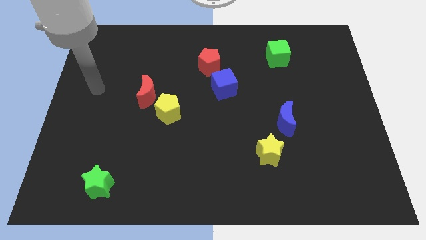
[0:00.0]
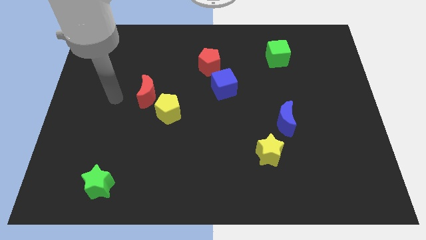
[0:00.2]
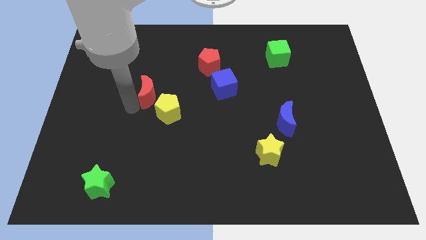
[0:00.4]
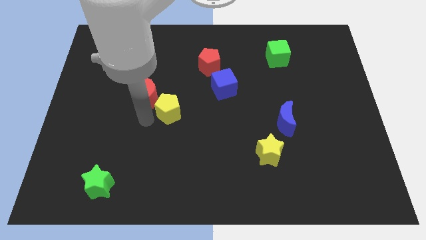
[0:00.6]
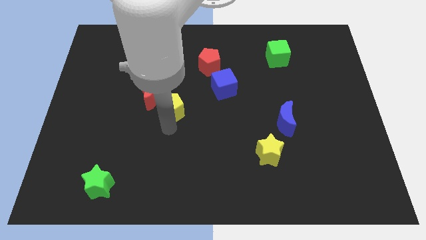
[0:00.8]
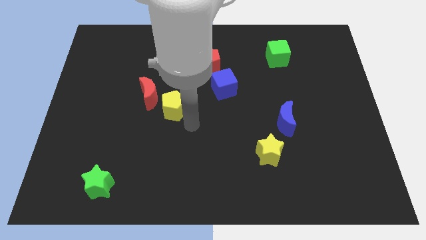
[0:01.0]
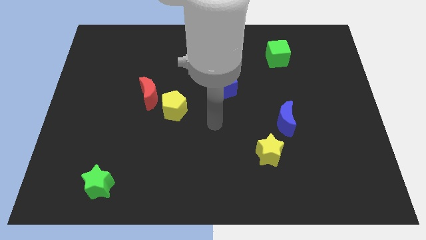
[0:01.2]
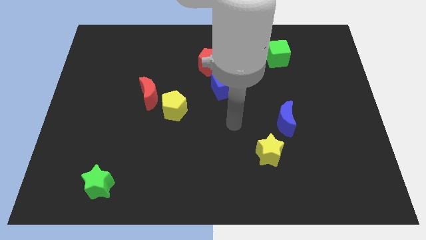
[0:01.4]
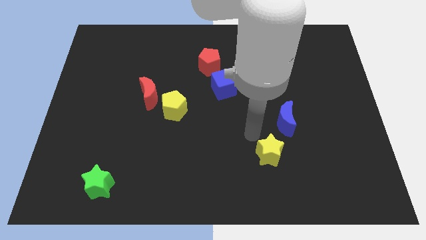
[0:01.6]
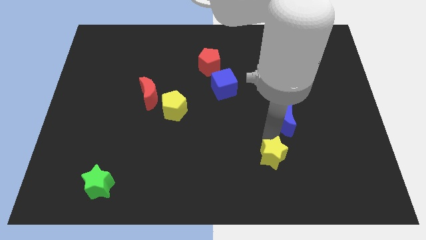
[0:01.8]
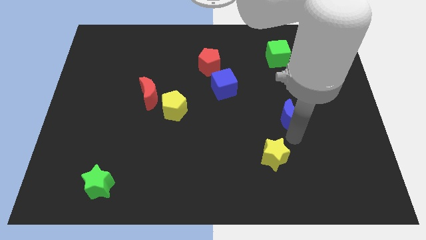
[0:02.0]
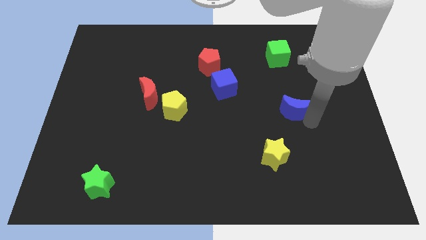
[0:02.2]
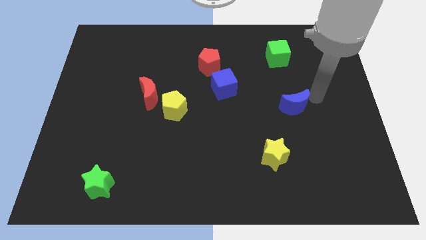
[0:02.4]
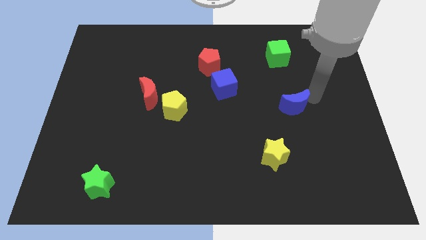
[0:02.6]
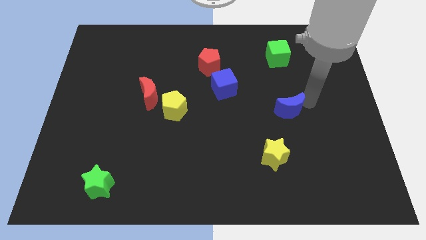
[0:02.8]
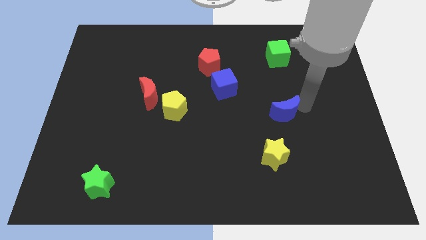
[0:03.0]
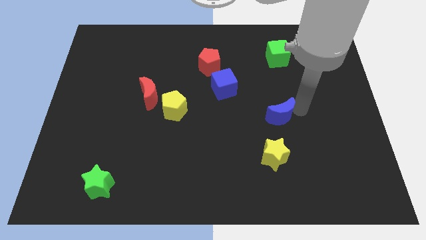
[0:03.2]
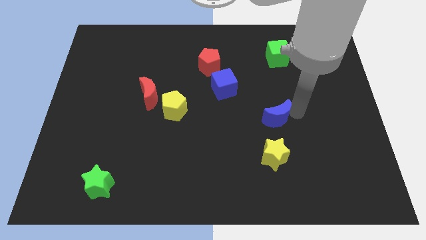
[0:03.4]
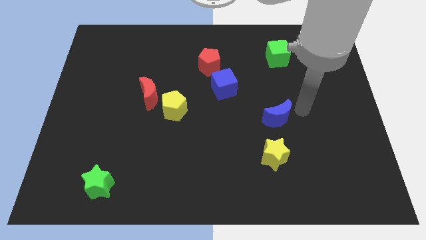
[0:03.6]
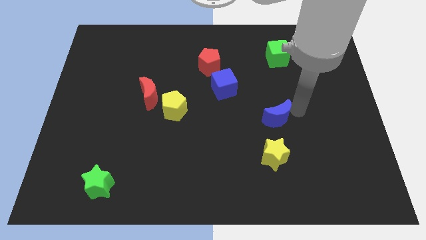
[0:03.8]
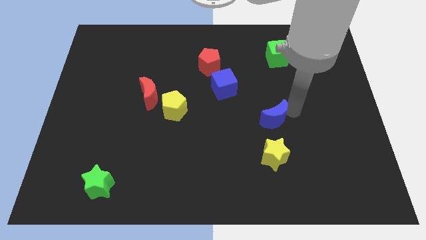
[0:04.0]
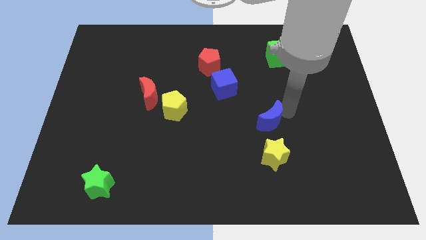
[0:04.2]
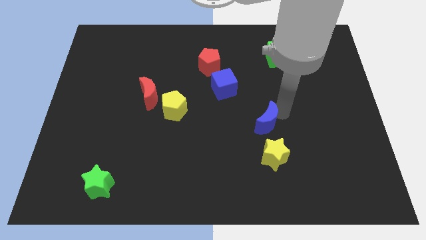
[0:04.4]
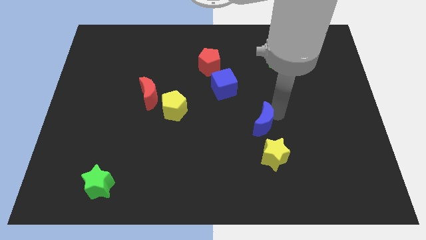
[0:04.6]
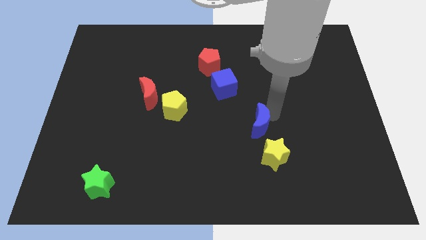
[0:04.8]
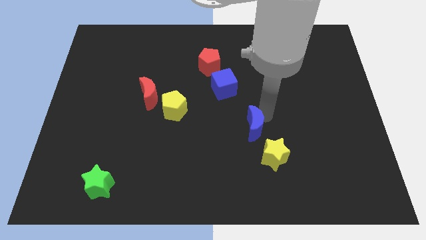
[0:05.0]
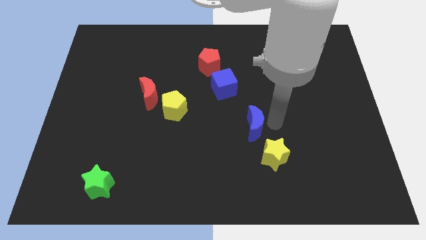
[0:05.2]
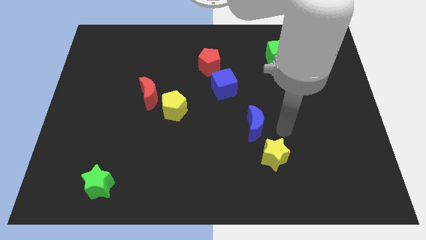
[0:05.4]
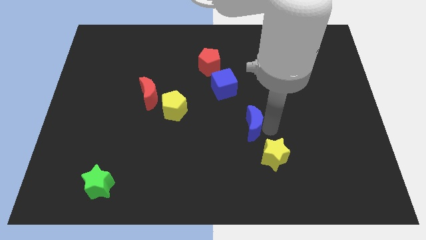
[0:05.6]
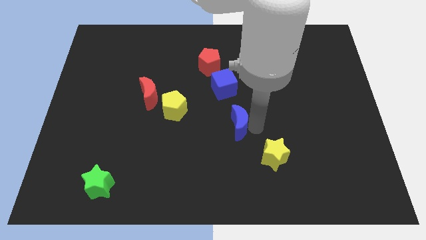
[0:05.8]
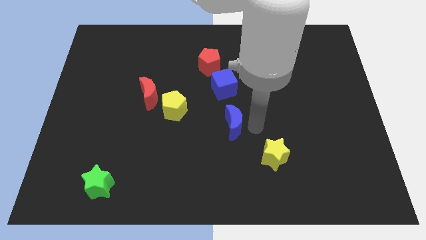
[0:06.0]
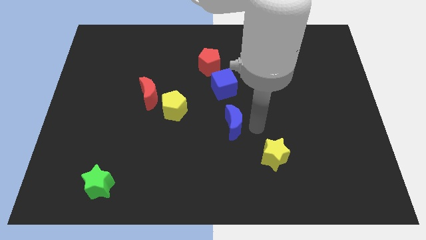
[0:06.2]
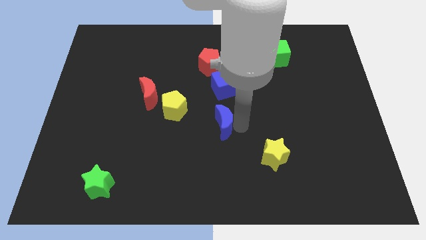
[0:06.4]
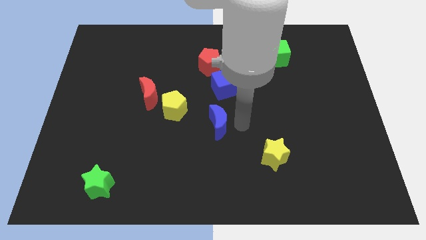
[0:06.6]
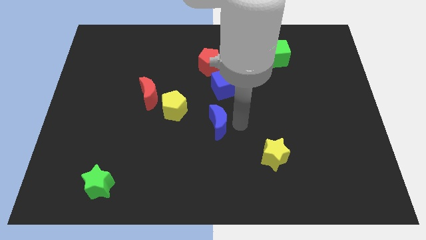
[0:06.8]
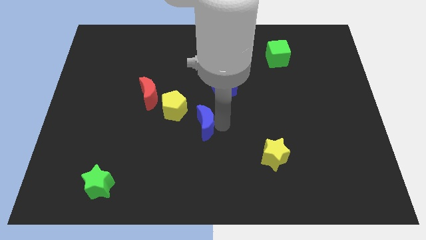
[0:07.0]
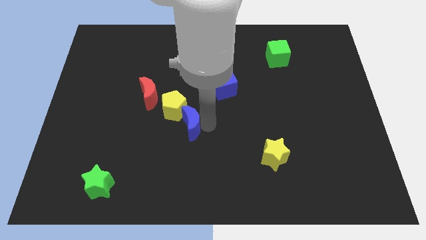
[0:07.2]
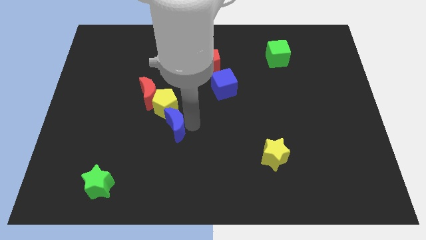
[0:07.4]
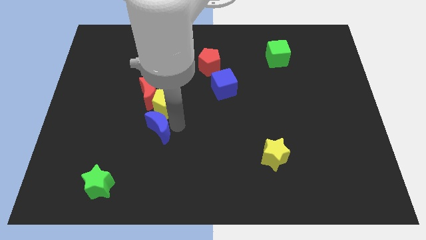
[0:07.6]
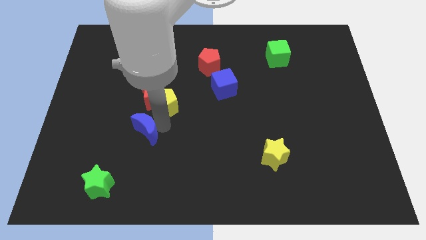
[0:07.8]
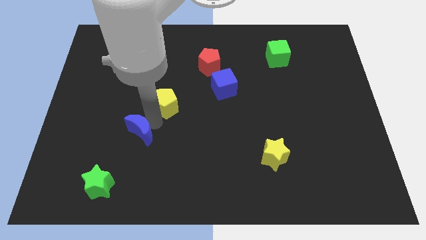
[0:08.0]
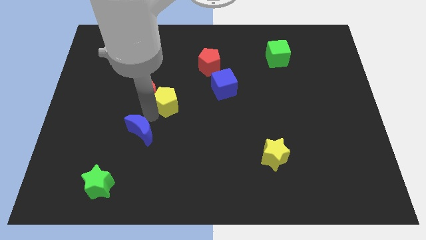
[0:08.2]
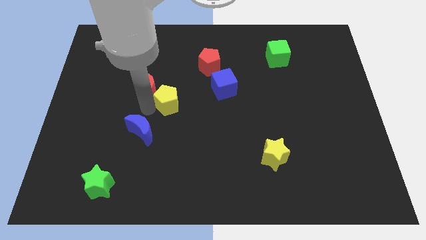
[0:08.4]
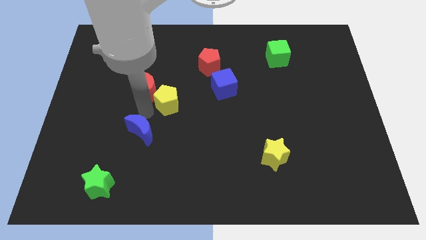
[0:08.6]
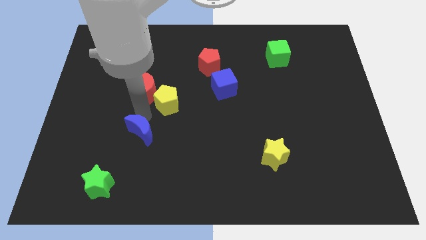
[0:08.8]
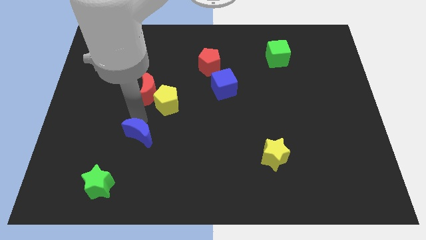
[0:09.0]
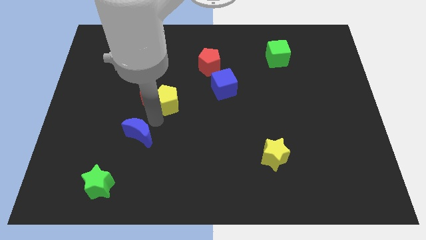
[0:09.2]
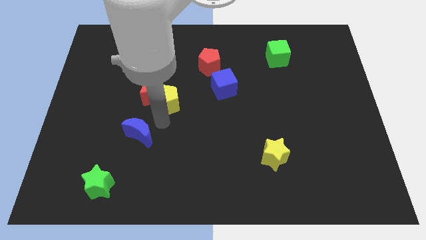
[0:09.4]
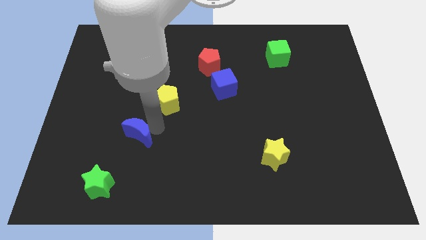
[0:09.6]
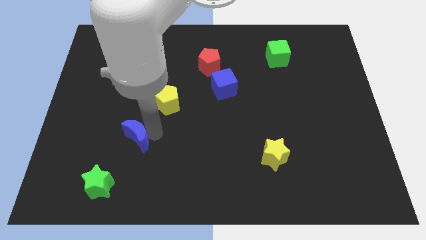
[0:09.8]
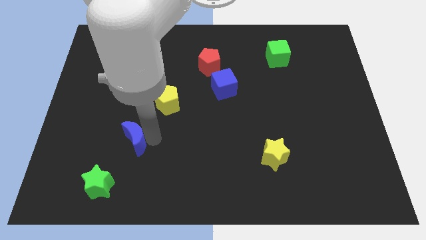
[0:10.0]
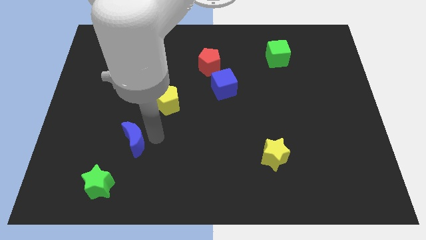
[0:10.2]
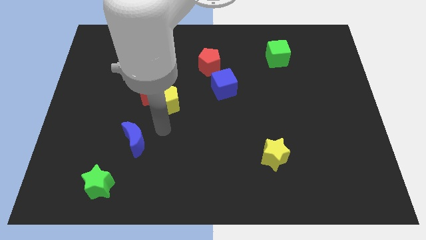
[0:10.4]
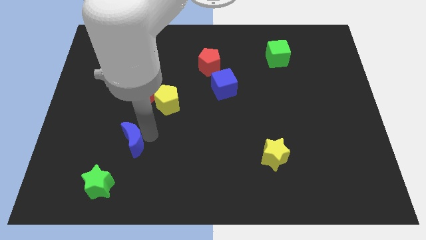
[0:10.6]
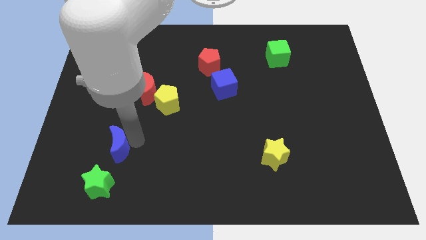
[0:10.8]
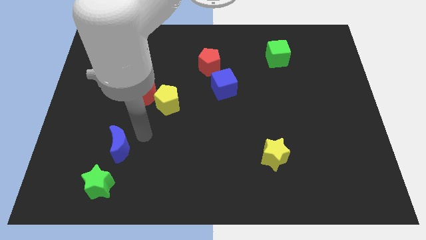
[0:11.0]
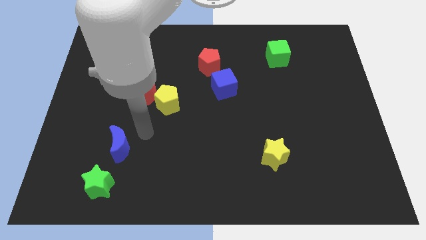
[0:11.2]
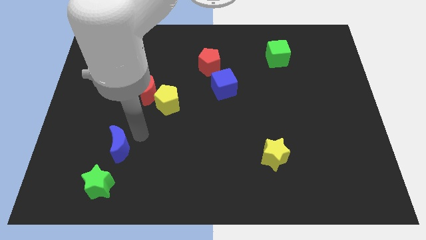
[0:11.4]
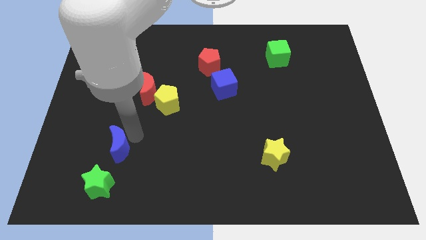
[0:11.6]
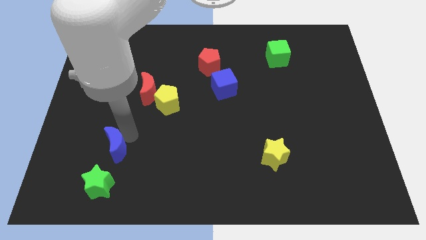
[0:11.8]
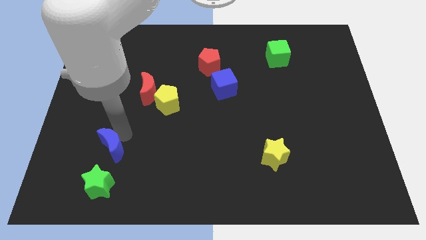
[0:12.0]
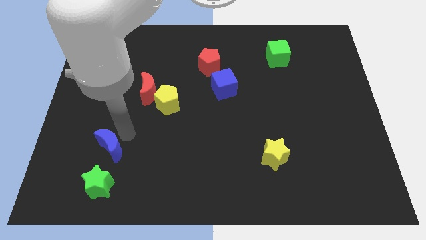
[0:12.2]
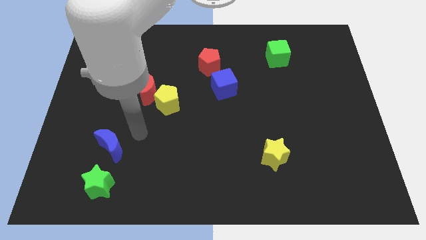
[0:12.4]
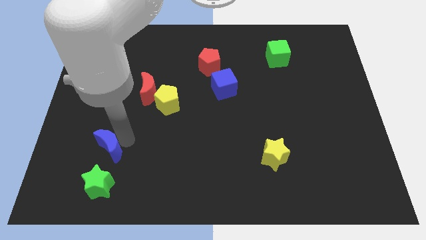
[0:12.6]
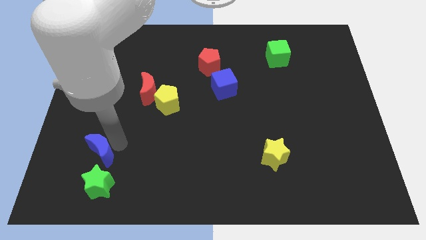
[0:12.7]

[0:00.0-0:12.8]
move the blue moon to the top left side of the green star
